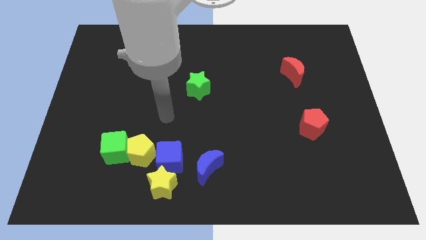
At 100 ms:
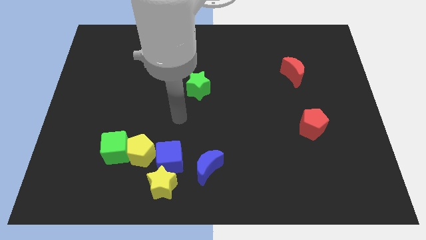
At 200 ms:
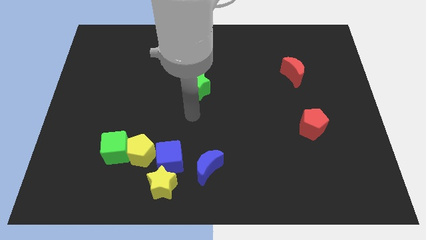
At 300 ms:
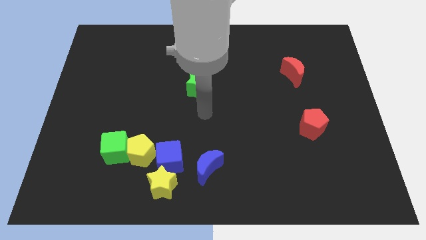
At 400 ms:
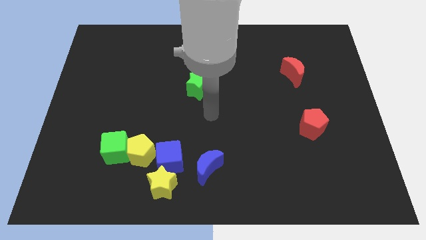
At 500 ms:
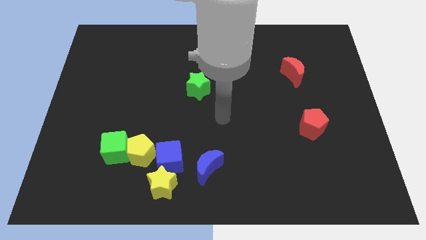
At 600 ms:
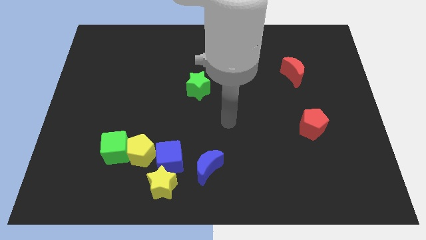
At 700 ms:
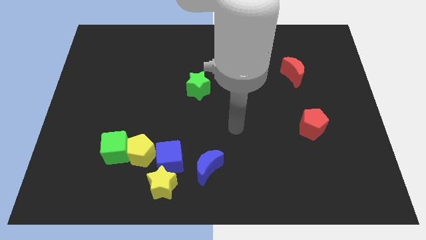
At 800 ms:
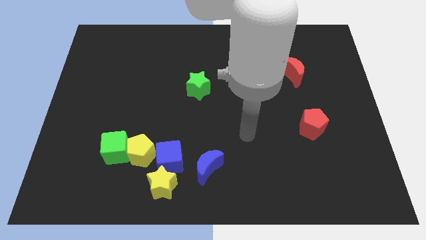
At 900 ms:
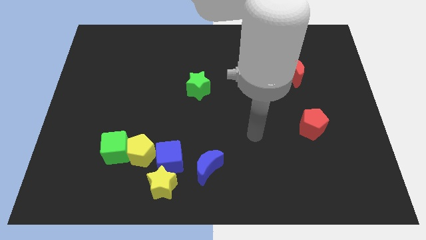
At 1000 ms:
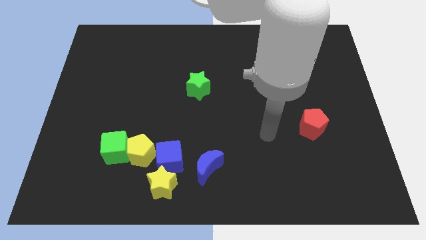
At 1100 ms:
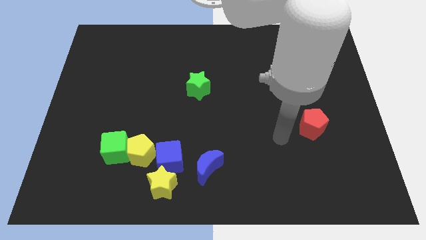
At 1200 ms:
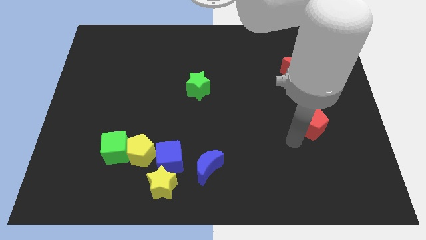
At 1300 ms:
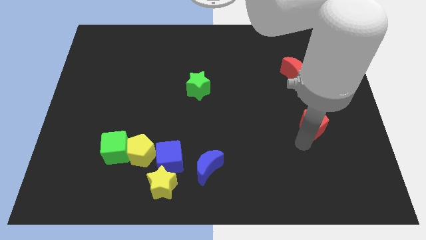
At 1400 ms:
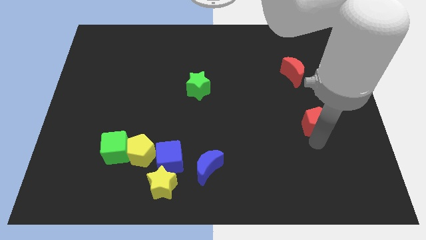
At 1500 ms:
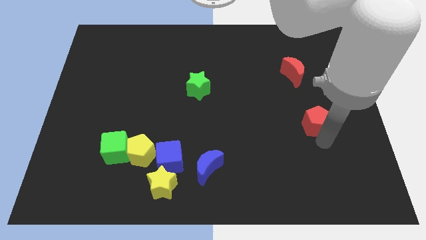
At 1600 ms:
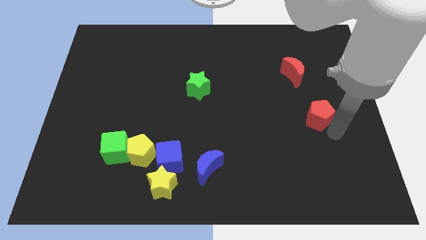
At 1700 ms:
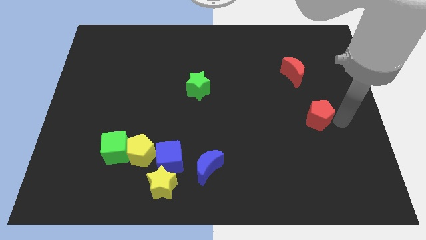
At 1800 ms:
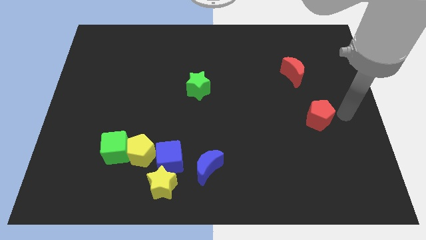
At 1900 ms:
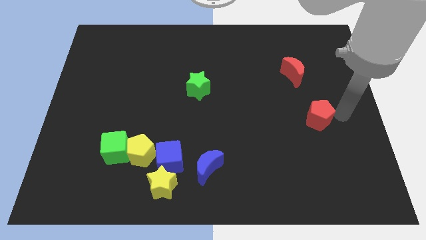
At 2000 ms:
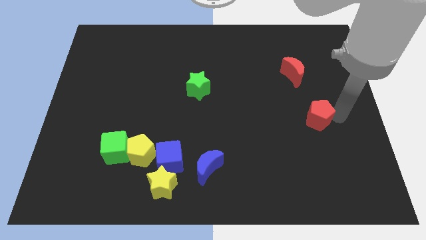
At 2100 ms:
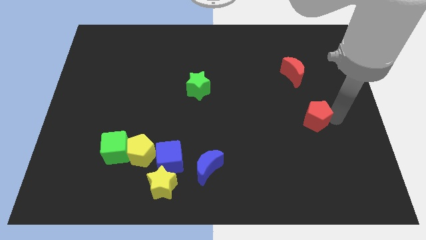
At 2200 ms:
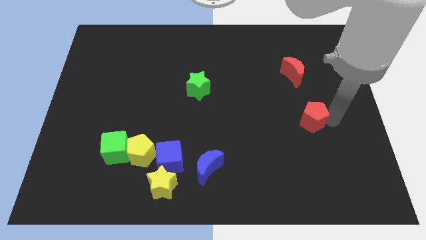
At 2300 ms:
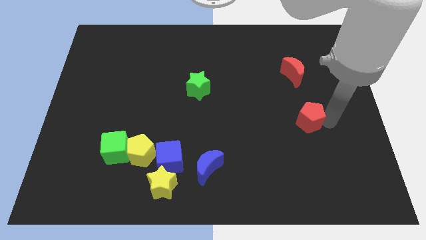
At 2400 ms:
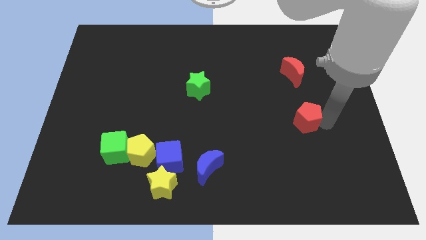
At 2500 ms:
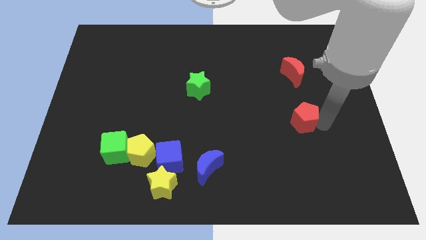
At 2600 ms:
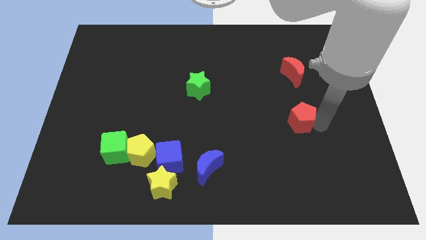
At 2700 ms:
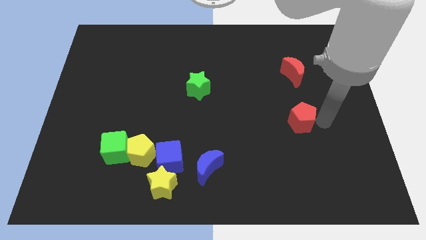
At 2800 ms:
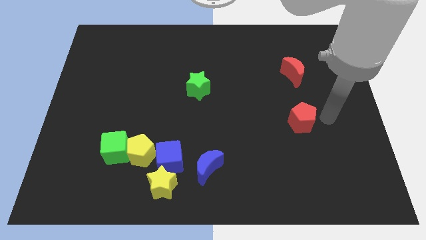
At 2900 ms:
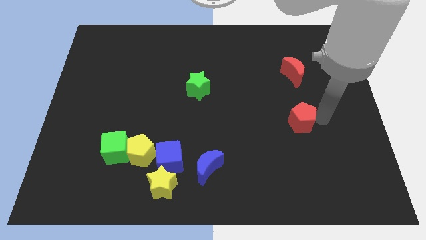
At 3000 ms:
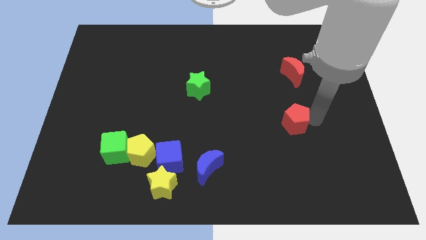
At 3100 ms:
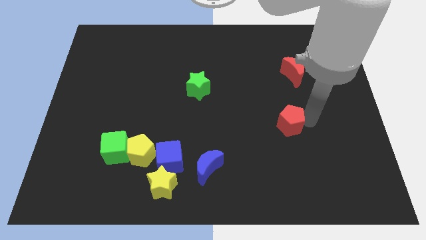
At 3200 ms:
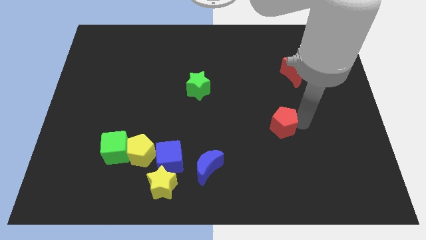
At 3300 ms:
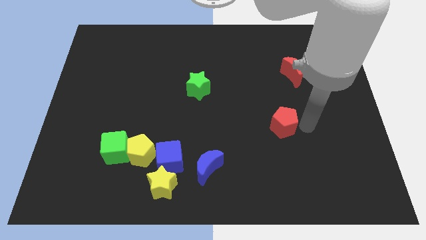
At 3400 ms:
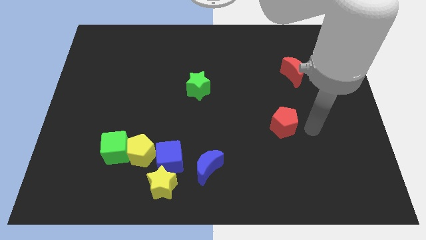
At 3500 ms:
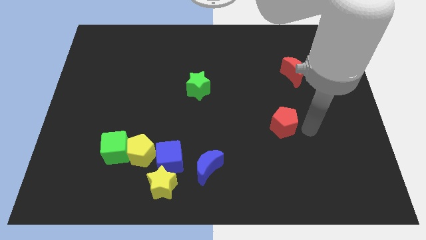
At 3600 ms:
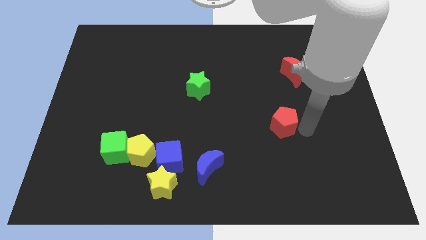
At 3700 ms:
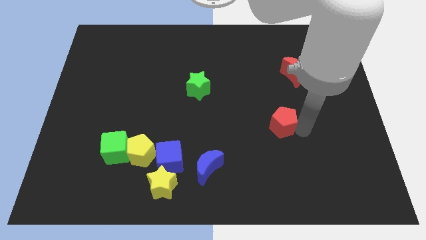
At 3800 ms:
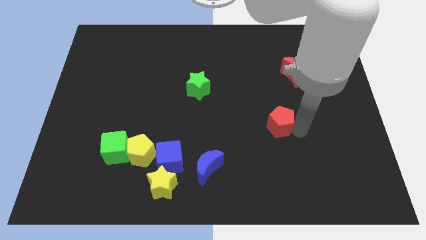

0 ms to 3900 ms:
slide the red pentagon somewhat to the left

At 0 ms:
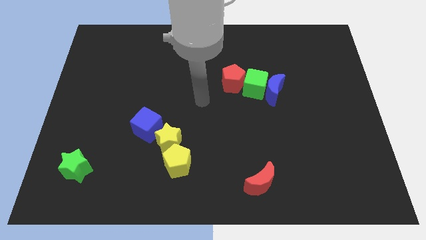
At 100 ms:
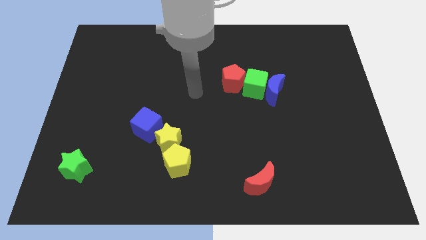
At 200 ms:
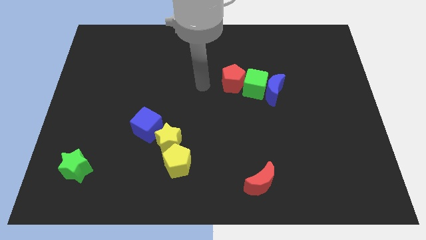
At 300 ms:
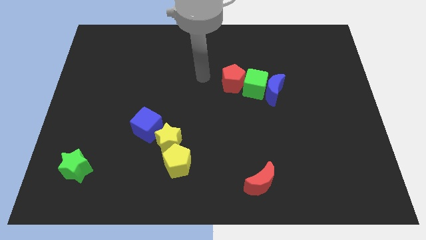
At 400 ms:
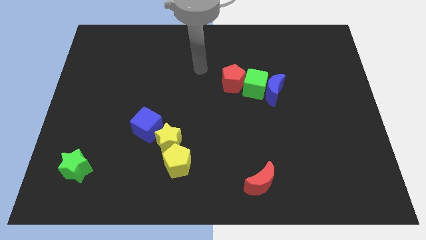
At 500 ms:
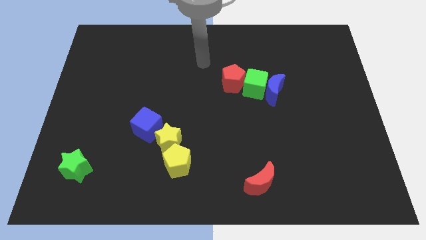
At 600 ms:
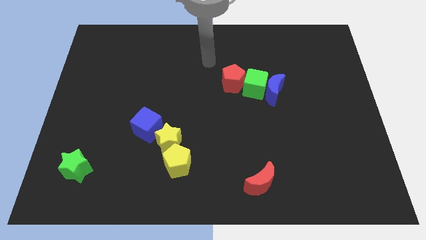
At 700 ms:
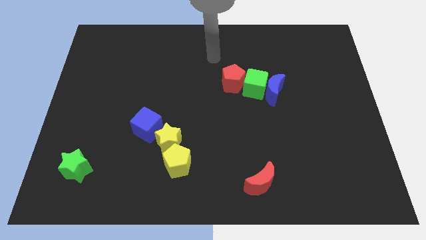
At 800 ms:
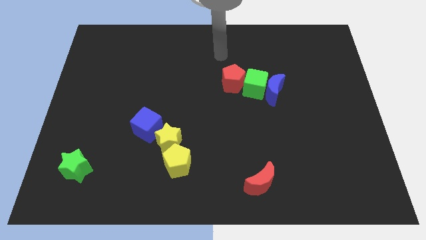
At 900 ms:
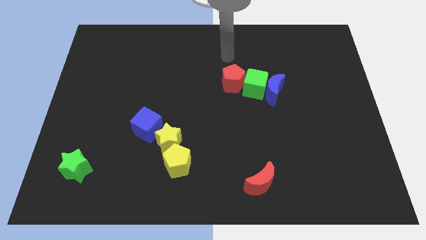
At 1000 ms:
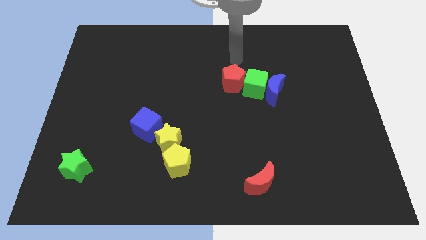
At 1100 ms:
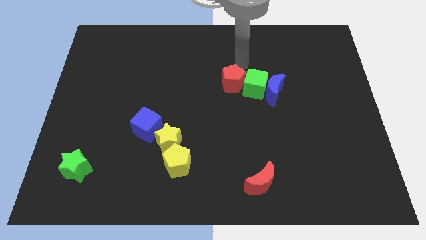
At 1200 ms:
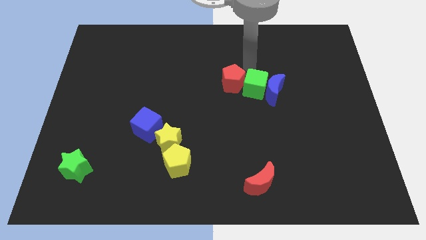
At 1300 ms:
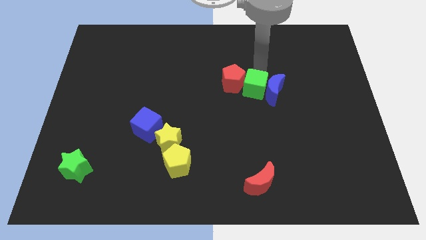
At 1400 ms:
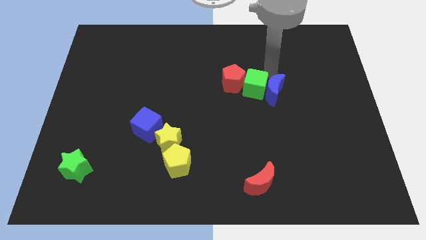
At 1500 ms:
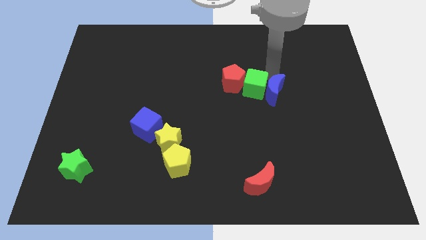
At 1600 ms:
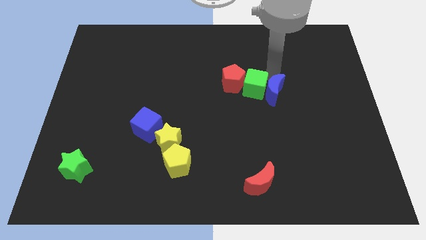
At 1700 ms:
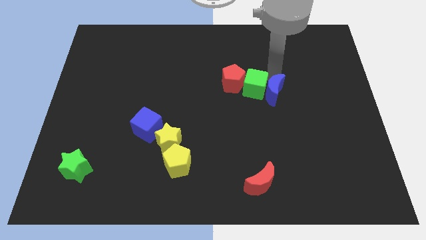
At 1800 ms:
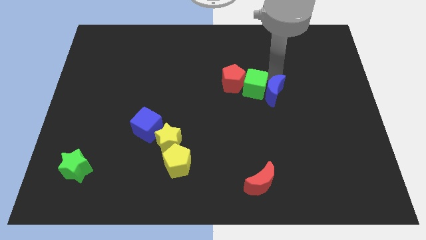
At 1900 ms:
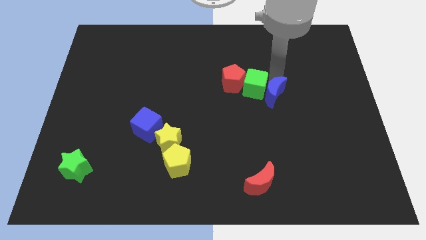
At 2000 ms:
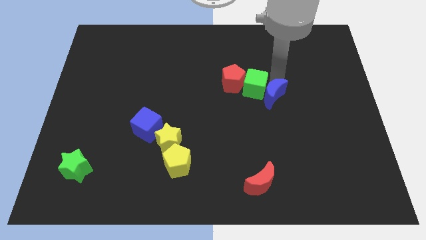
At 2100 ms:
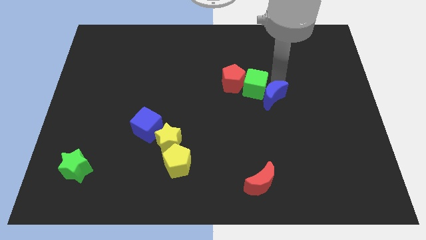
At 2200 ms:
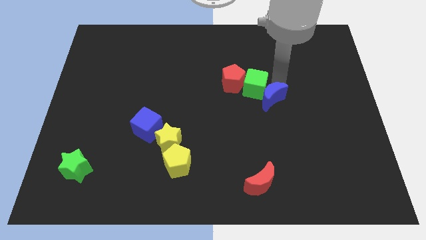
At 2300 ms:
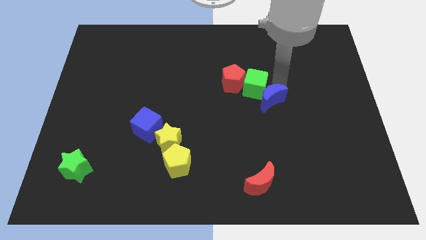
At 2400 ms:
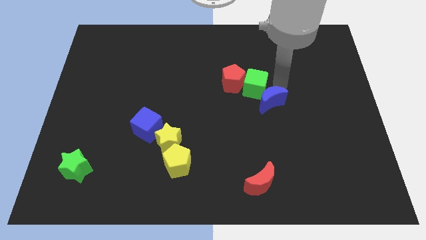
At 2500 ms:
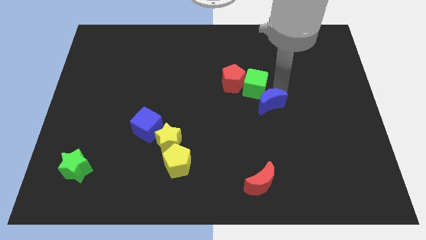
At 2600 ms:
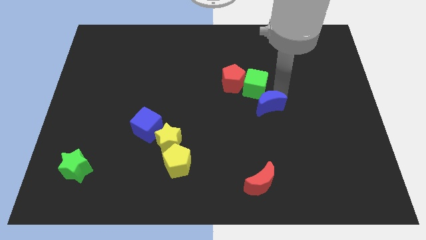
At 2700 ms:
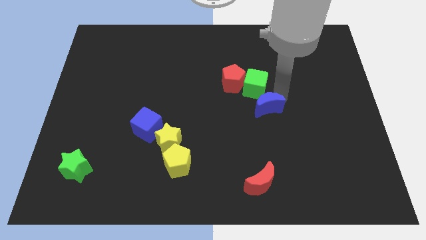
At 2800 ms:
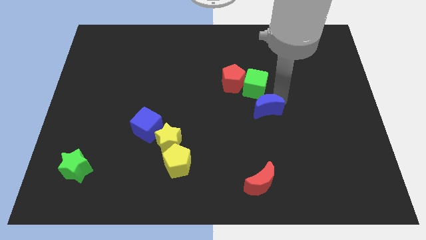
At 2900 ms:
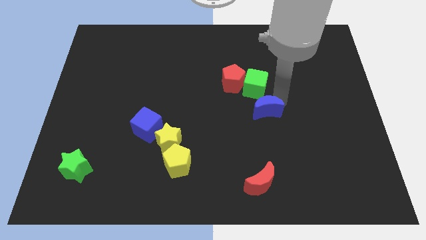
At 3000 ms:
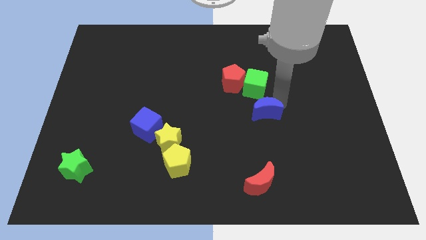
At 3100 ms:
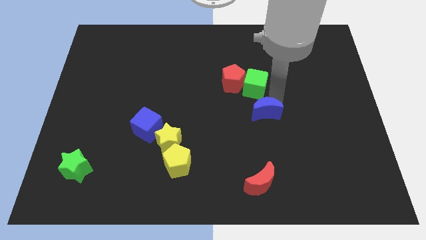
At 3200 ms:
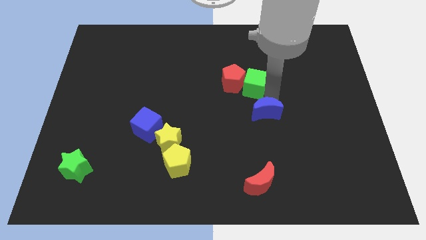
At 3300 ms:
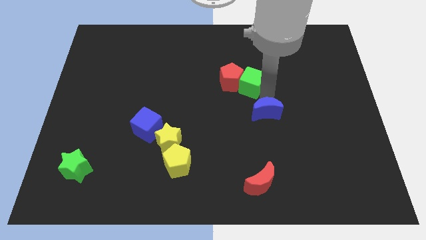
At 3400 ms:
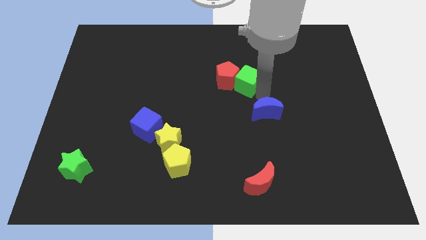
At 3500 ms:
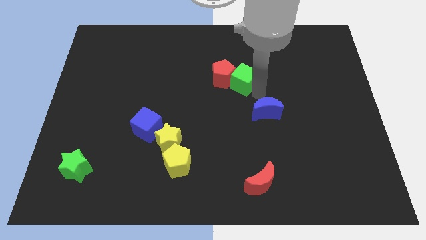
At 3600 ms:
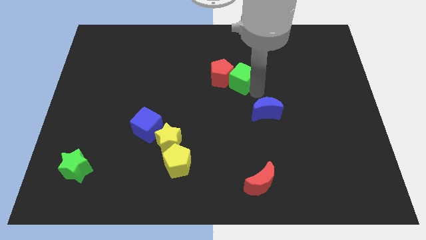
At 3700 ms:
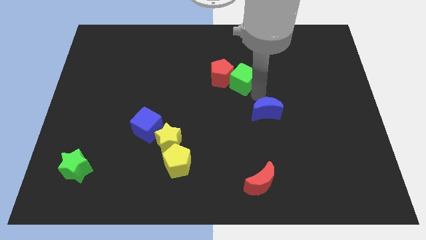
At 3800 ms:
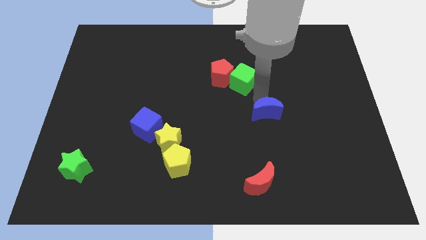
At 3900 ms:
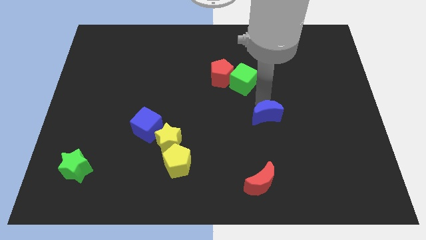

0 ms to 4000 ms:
push the blue moon a little downwards

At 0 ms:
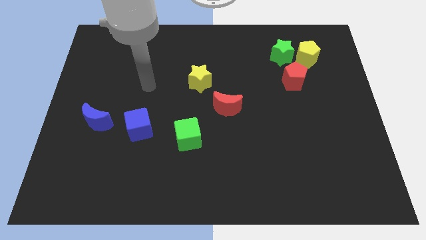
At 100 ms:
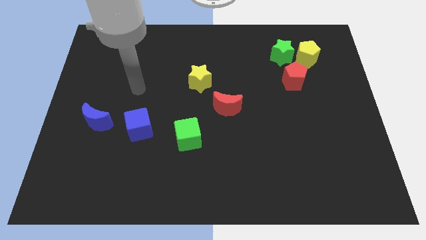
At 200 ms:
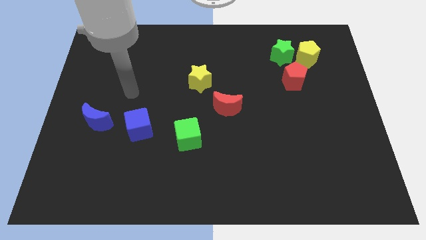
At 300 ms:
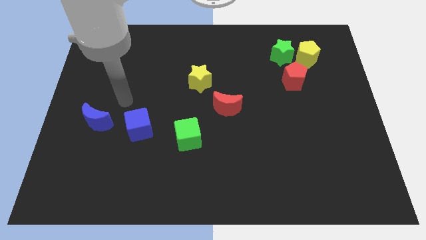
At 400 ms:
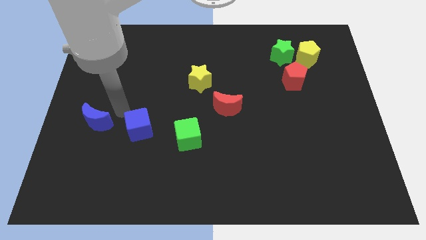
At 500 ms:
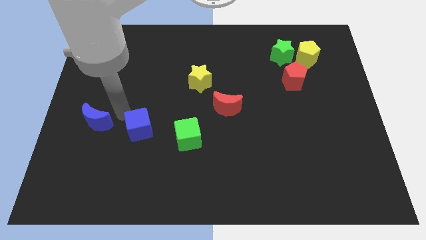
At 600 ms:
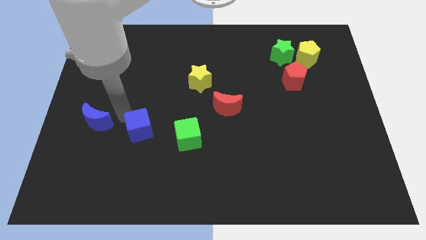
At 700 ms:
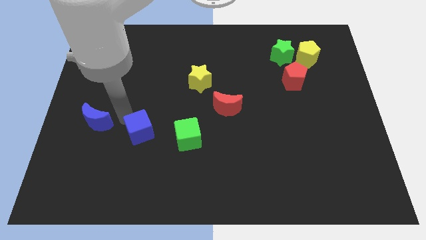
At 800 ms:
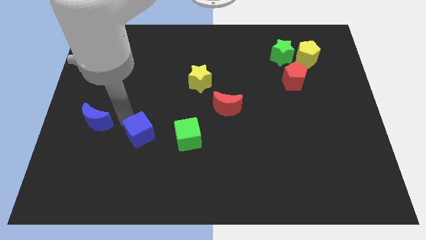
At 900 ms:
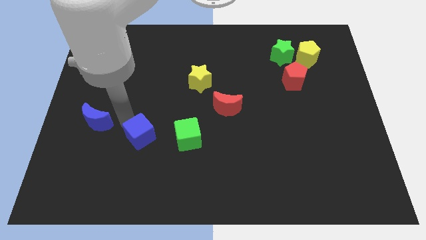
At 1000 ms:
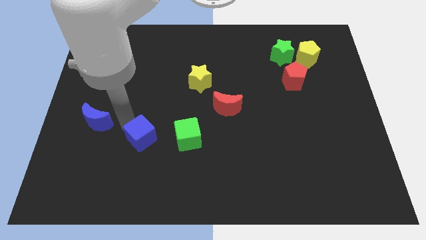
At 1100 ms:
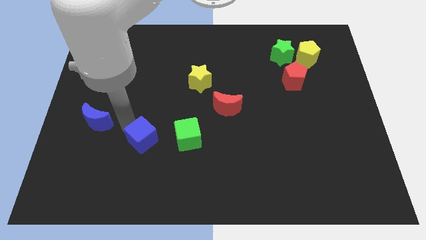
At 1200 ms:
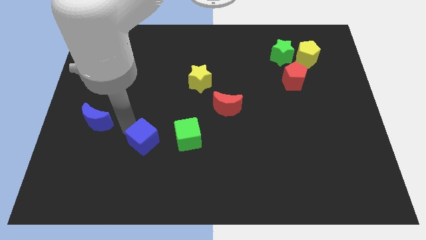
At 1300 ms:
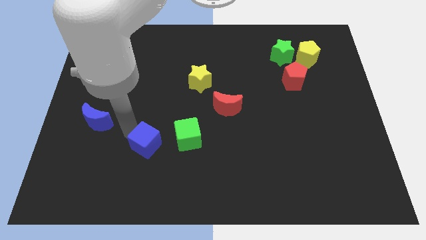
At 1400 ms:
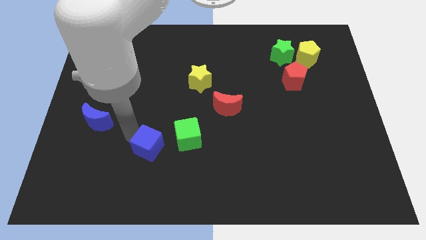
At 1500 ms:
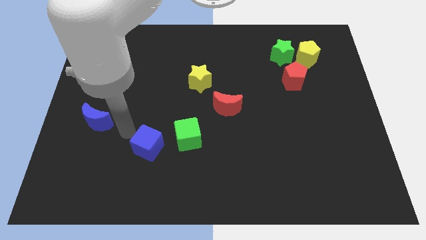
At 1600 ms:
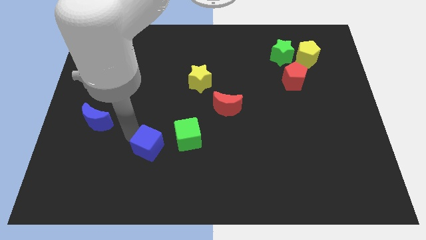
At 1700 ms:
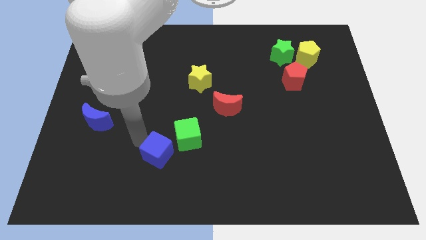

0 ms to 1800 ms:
slide the blue cube a little diagonally downwards and to the right
